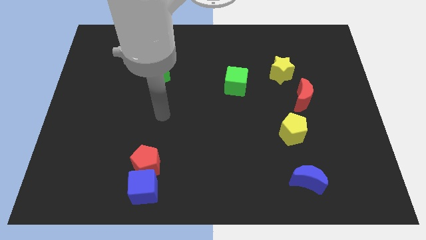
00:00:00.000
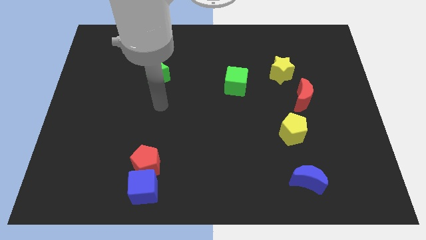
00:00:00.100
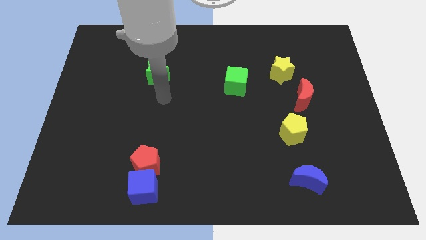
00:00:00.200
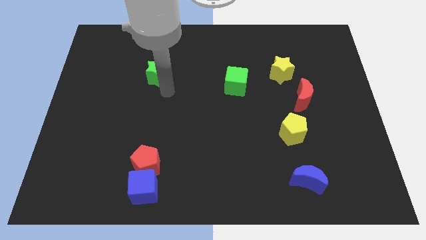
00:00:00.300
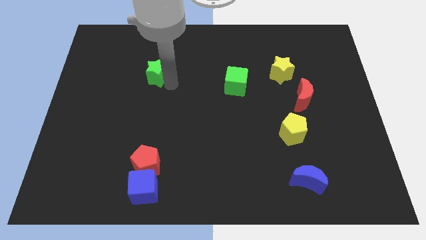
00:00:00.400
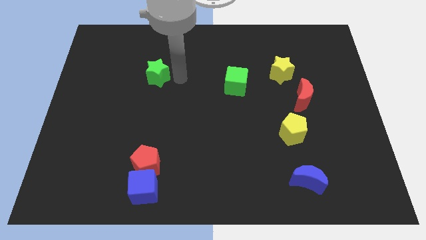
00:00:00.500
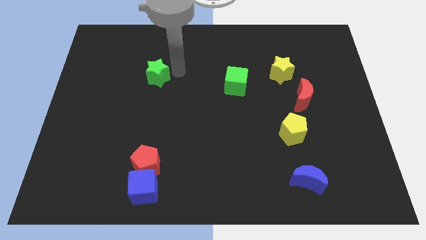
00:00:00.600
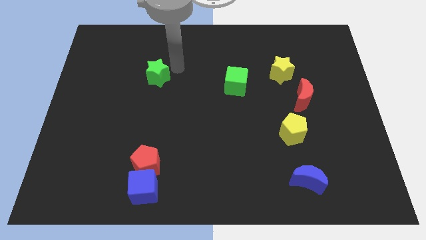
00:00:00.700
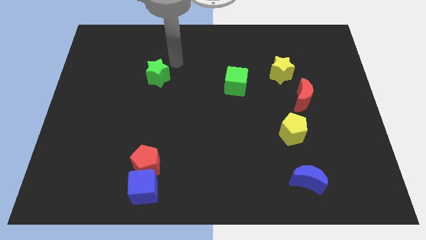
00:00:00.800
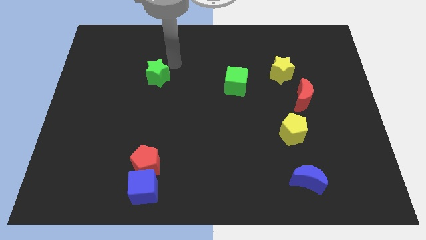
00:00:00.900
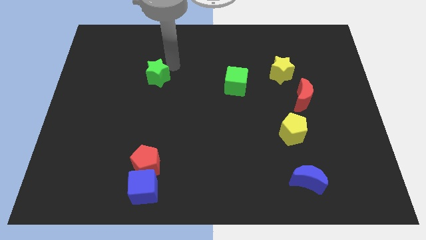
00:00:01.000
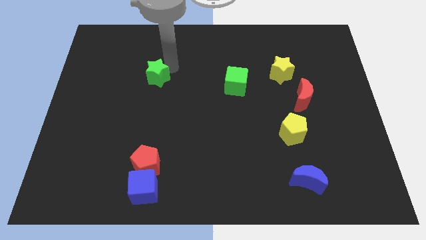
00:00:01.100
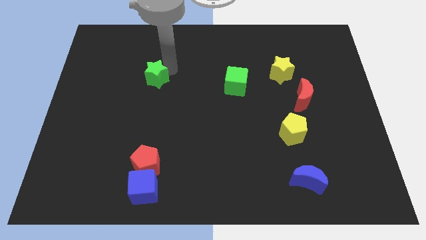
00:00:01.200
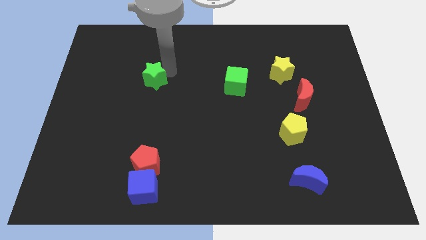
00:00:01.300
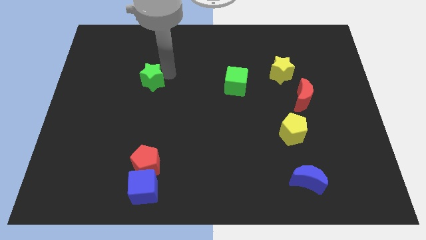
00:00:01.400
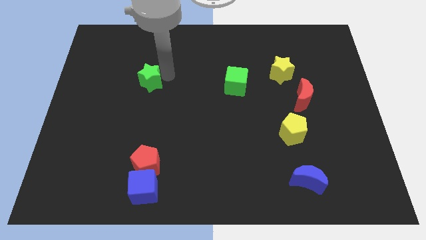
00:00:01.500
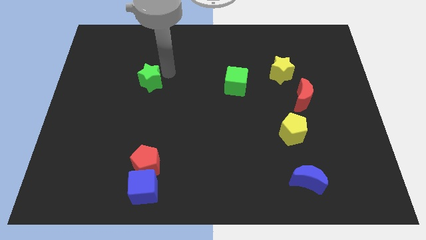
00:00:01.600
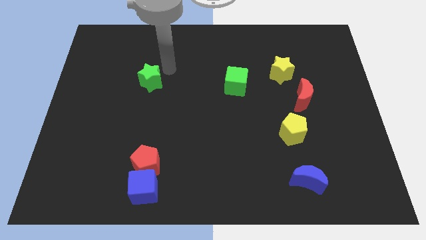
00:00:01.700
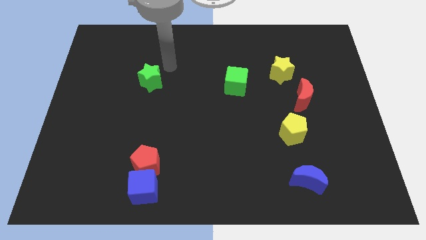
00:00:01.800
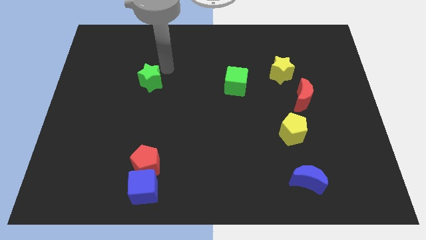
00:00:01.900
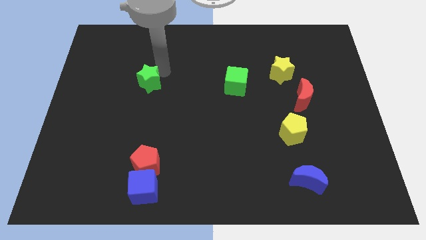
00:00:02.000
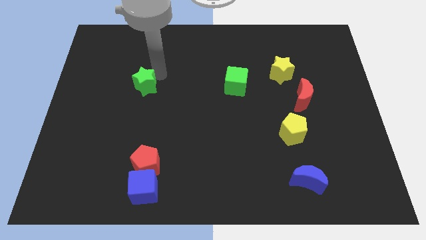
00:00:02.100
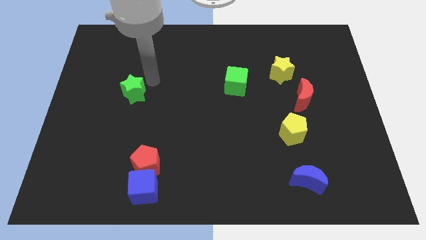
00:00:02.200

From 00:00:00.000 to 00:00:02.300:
move the green star downwards and to the left a little bit

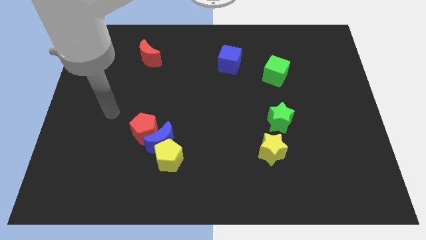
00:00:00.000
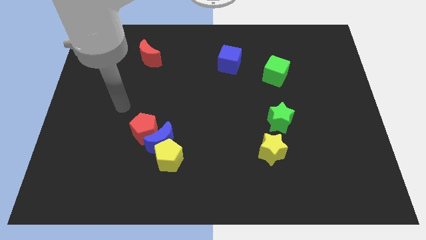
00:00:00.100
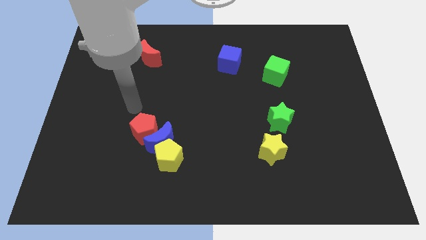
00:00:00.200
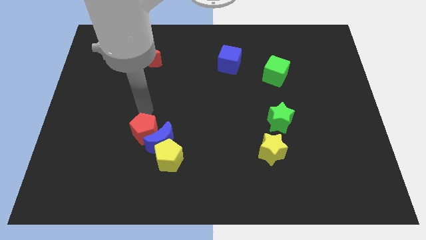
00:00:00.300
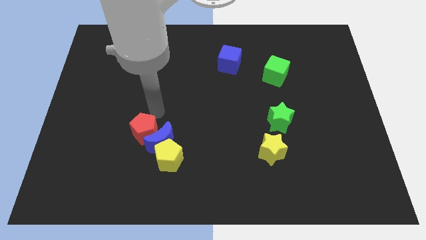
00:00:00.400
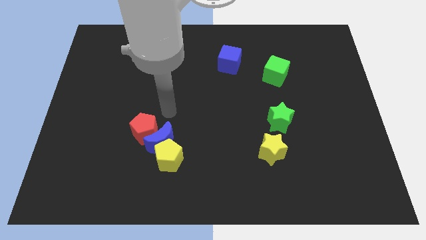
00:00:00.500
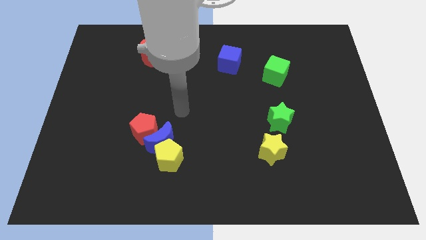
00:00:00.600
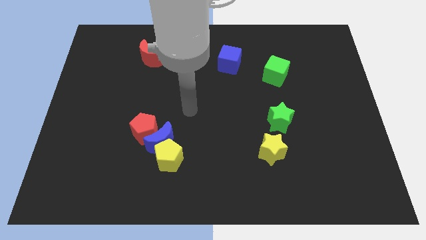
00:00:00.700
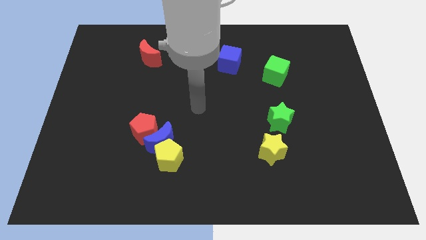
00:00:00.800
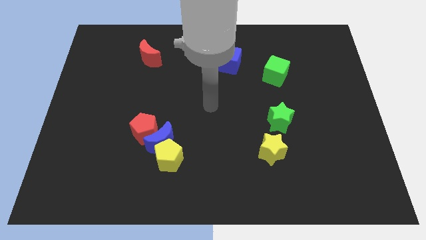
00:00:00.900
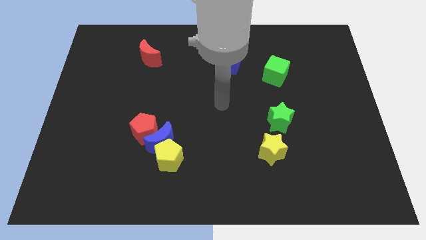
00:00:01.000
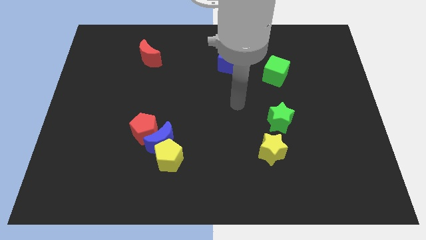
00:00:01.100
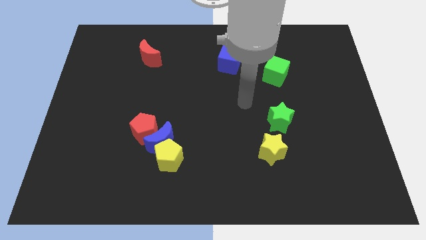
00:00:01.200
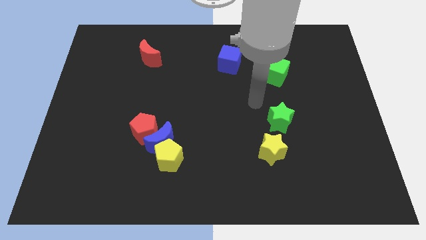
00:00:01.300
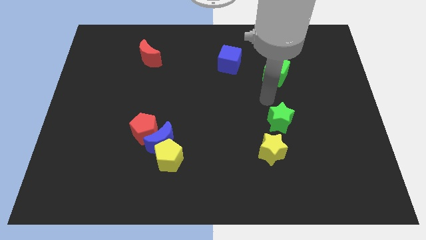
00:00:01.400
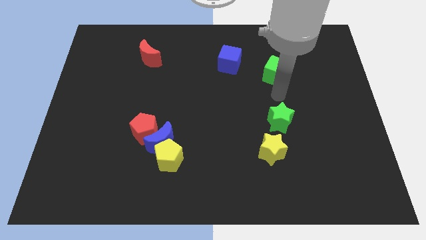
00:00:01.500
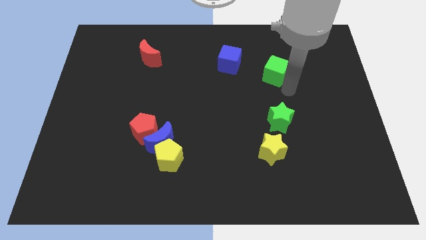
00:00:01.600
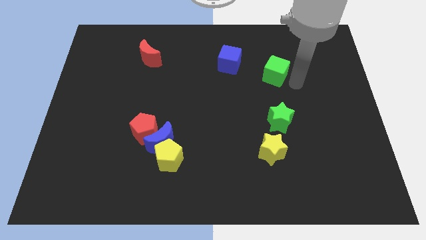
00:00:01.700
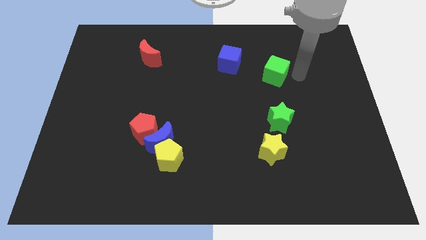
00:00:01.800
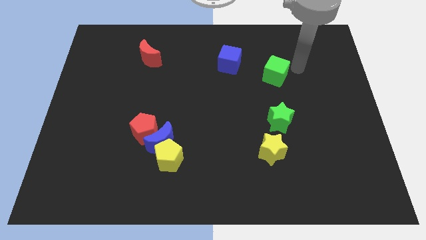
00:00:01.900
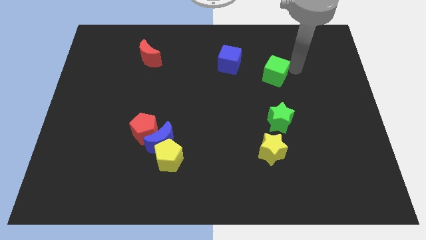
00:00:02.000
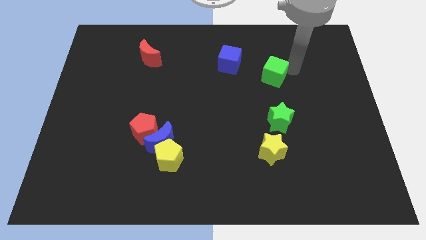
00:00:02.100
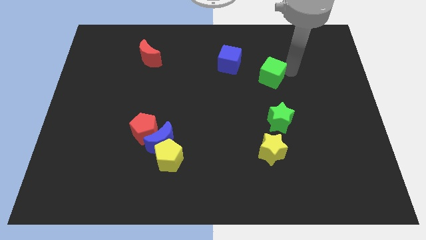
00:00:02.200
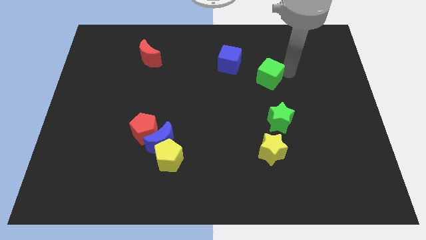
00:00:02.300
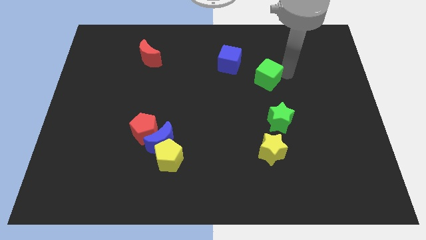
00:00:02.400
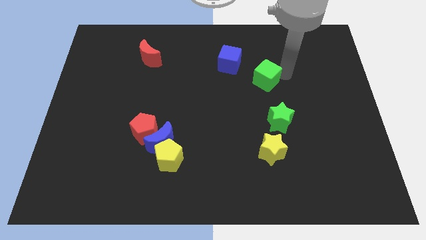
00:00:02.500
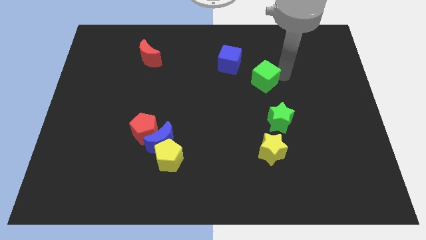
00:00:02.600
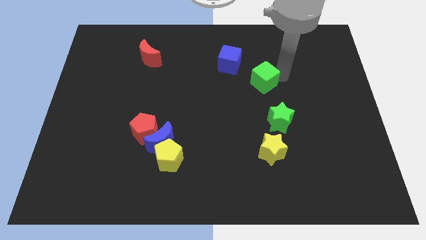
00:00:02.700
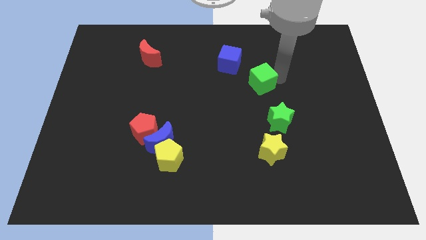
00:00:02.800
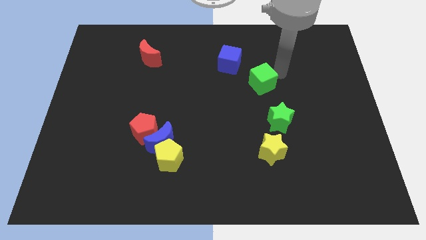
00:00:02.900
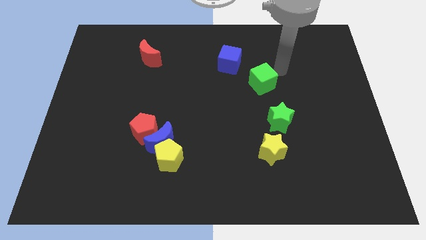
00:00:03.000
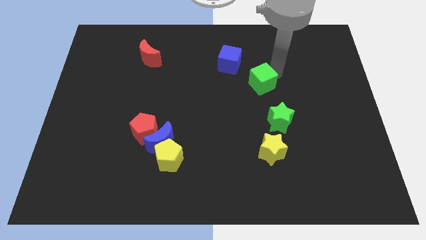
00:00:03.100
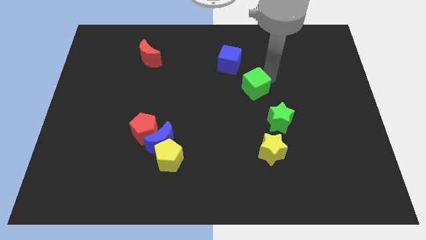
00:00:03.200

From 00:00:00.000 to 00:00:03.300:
push the green cube somewhat downwards and then to the left

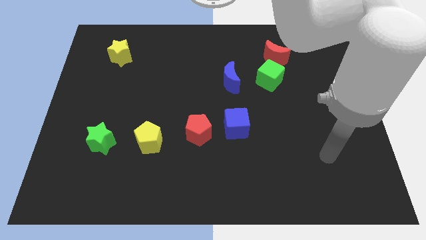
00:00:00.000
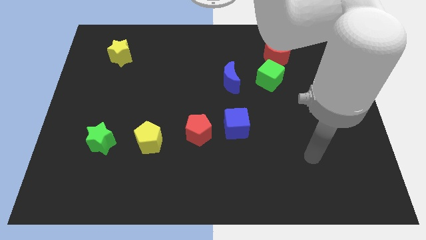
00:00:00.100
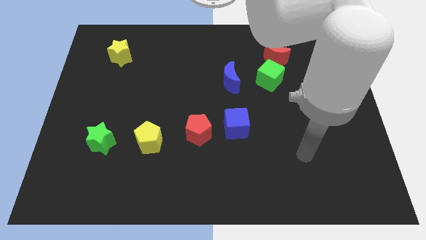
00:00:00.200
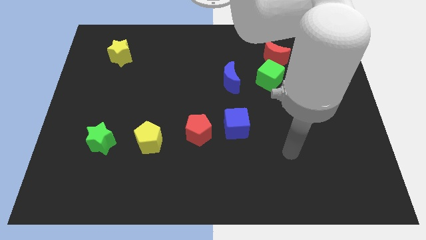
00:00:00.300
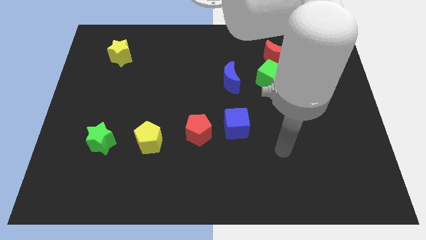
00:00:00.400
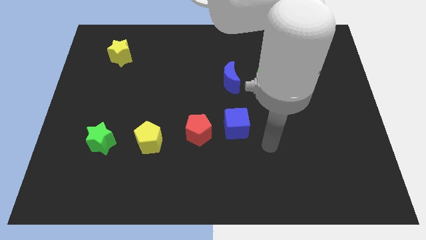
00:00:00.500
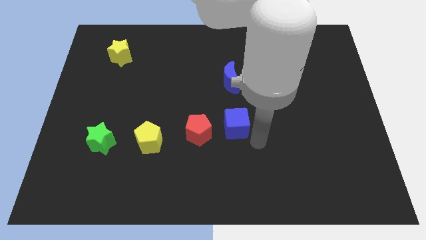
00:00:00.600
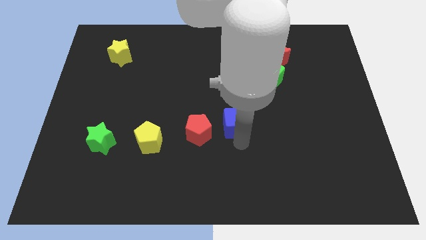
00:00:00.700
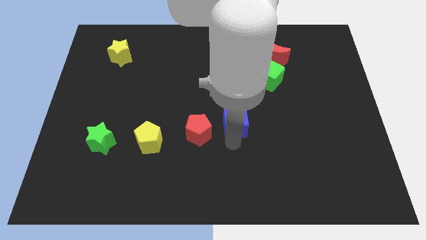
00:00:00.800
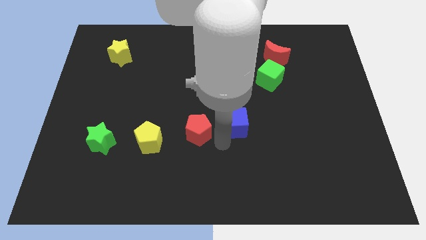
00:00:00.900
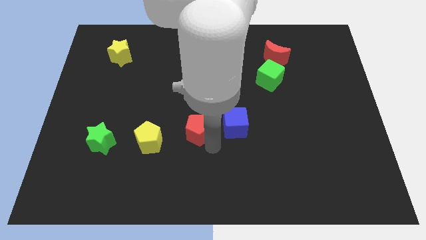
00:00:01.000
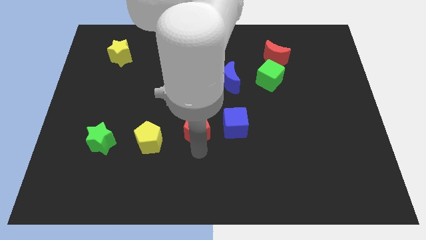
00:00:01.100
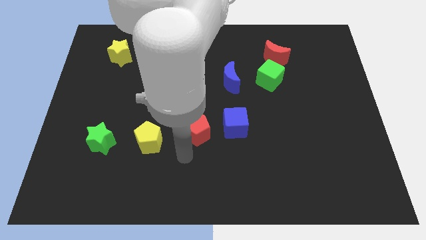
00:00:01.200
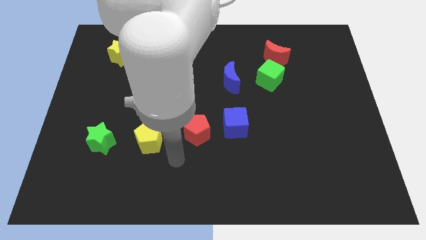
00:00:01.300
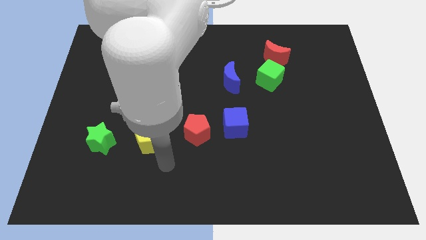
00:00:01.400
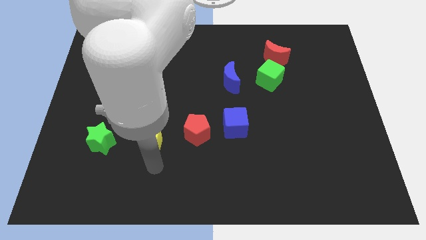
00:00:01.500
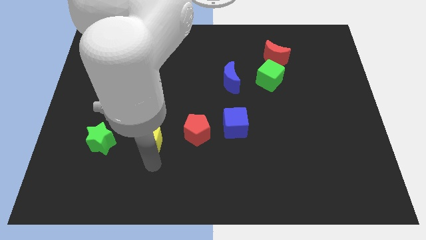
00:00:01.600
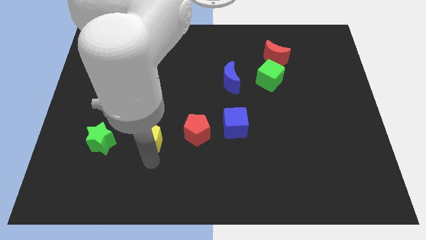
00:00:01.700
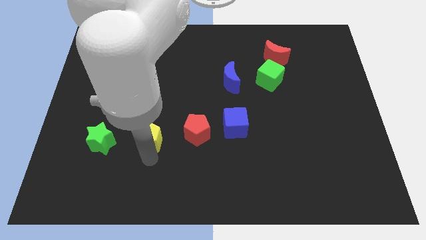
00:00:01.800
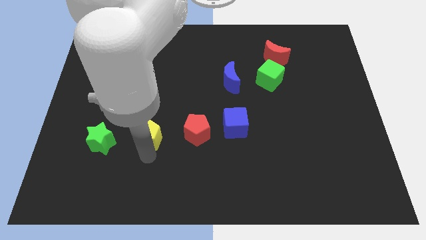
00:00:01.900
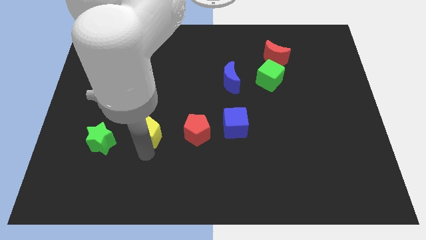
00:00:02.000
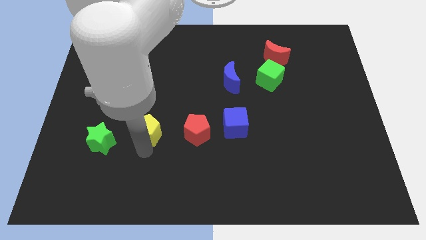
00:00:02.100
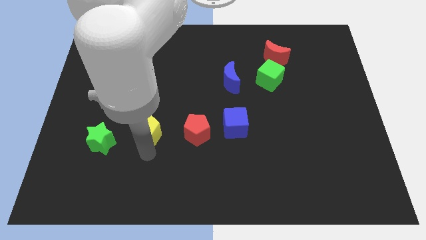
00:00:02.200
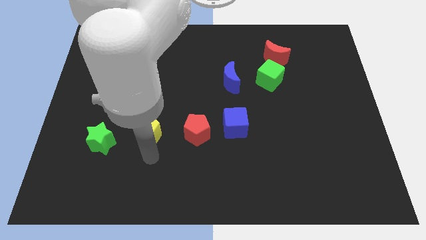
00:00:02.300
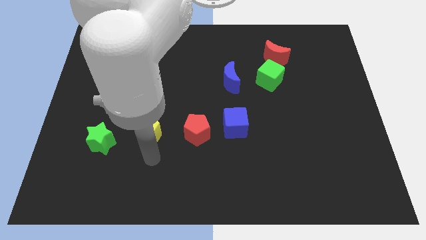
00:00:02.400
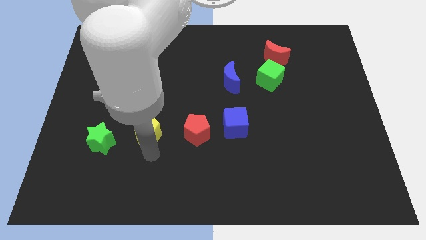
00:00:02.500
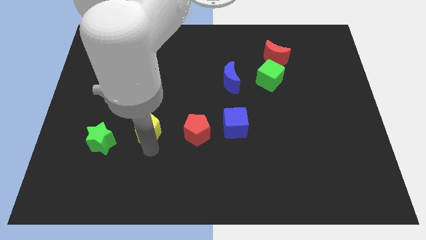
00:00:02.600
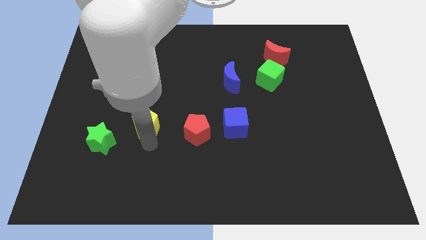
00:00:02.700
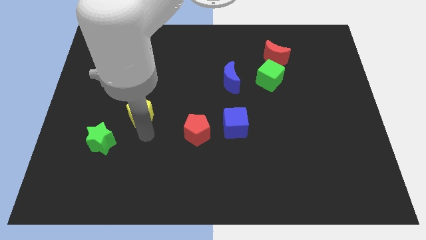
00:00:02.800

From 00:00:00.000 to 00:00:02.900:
push the yellow pentagon a bit upwards
